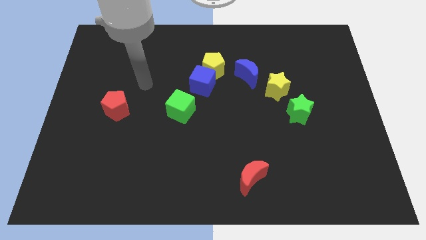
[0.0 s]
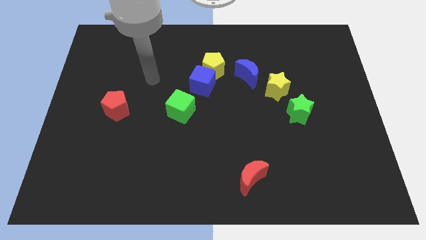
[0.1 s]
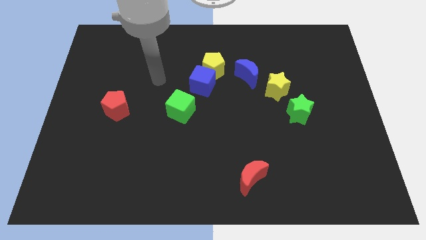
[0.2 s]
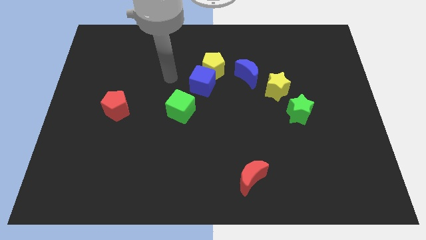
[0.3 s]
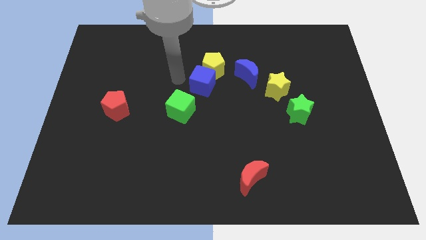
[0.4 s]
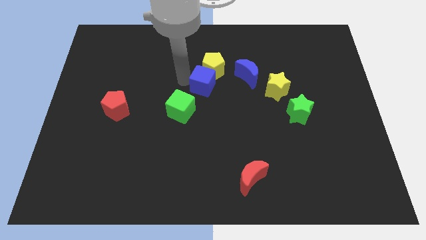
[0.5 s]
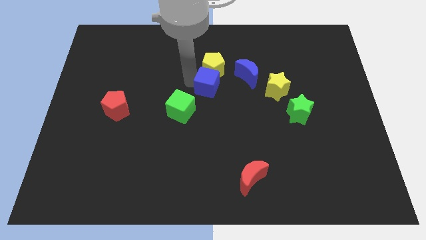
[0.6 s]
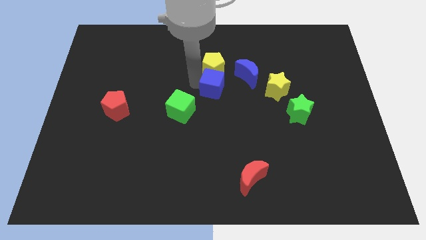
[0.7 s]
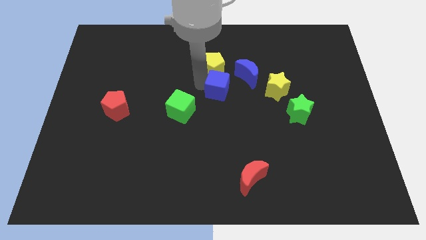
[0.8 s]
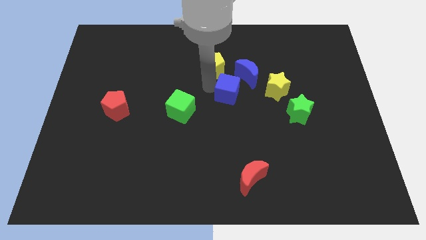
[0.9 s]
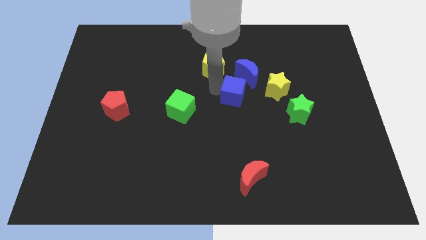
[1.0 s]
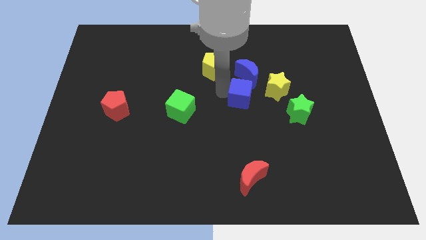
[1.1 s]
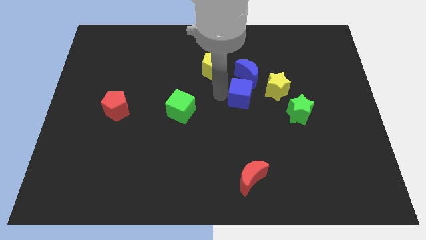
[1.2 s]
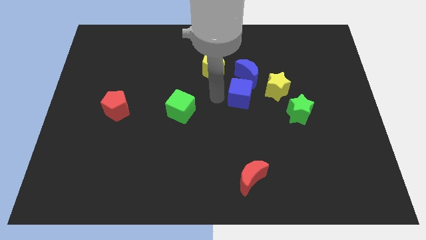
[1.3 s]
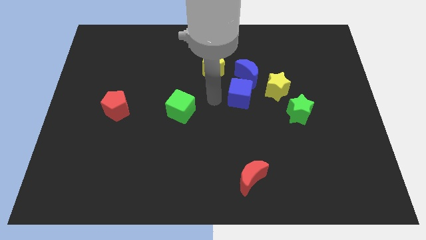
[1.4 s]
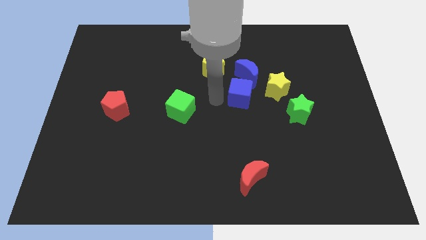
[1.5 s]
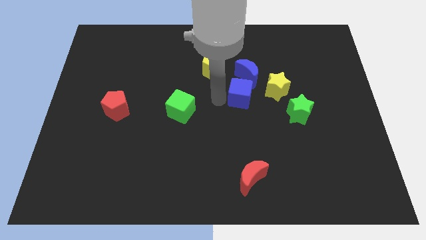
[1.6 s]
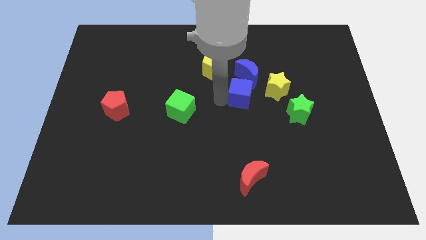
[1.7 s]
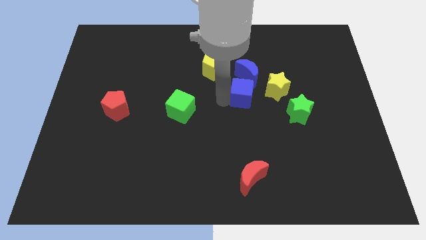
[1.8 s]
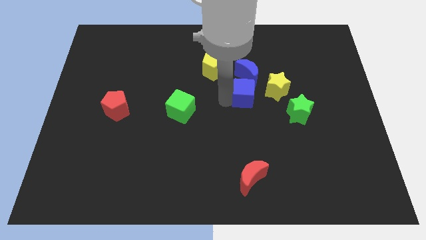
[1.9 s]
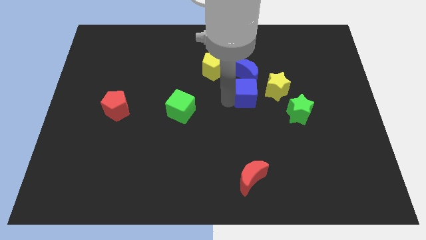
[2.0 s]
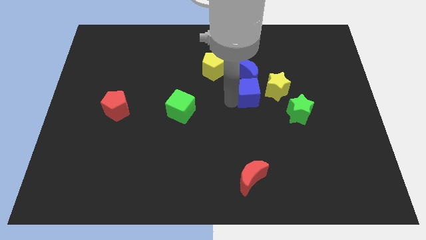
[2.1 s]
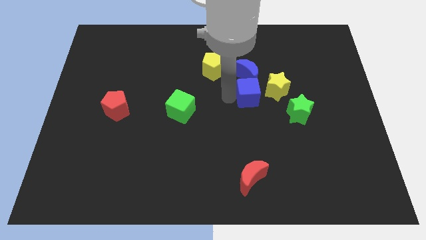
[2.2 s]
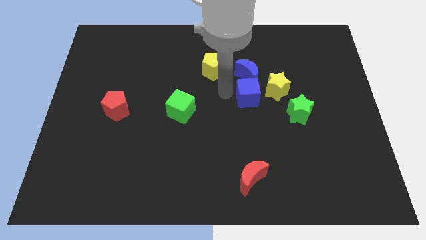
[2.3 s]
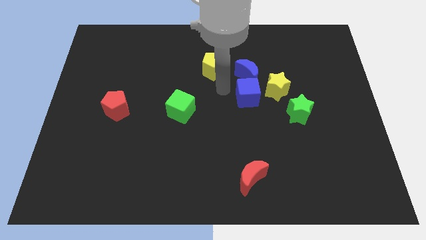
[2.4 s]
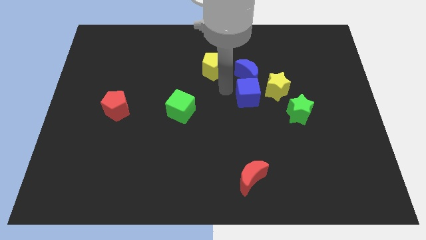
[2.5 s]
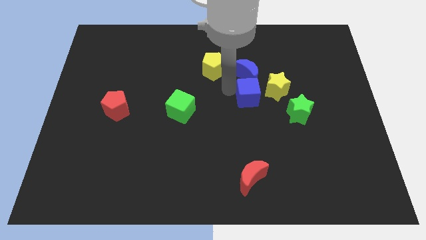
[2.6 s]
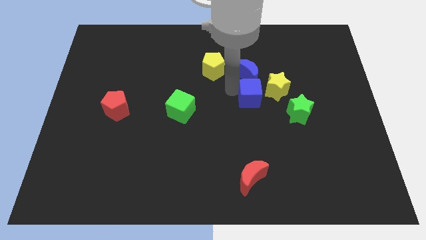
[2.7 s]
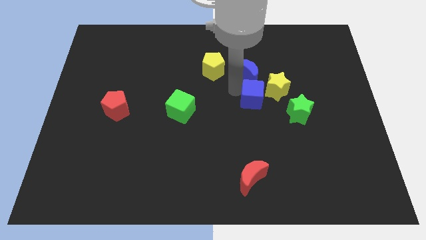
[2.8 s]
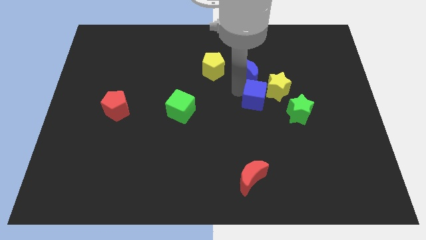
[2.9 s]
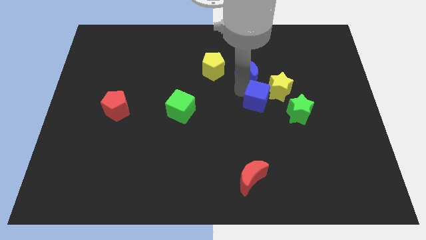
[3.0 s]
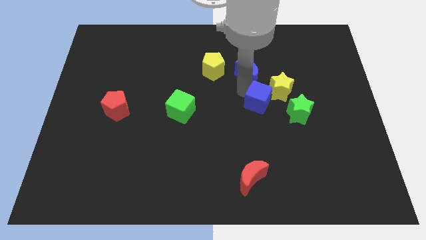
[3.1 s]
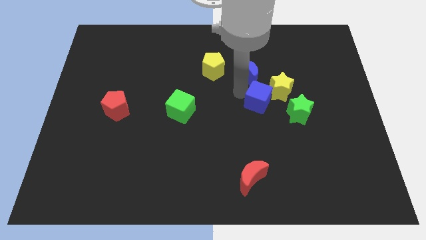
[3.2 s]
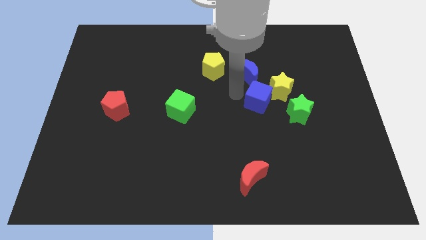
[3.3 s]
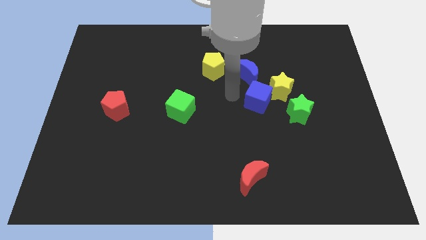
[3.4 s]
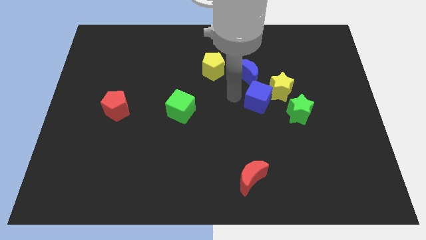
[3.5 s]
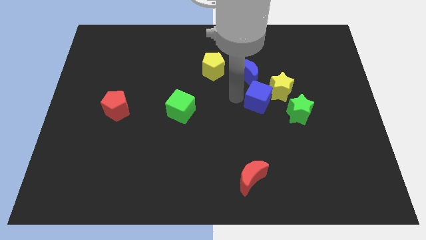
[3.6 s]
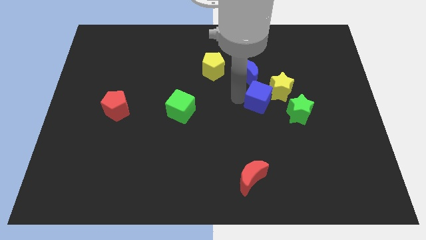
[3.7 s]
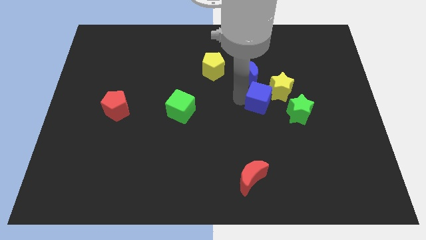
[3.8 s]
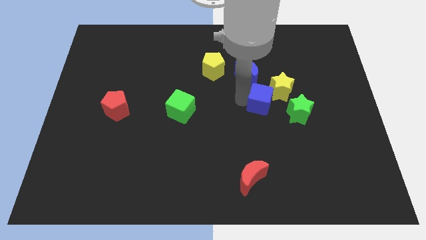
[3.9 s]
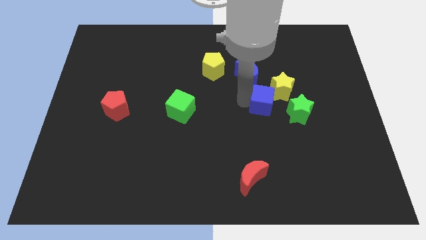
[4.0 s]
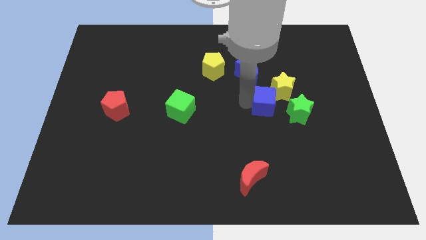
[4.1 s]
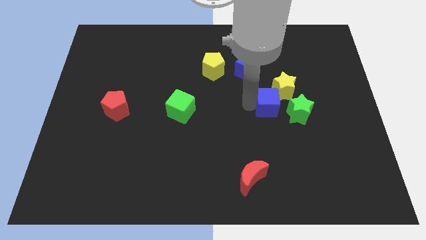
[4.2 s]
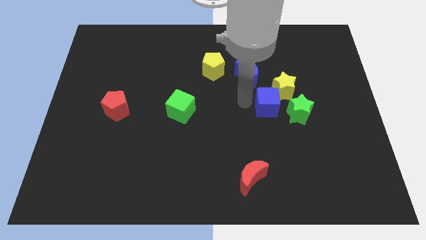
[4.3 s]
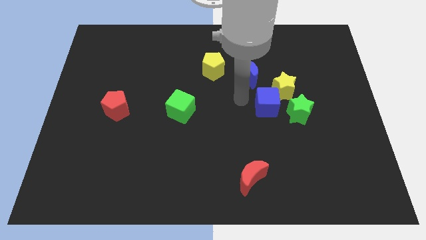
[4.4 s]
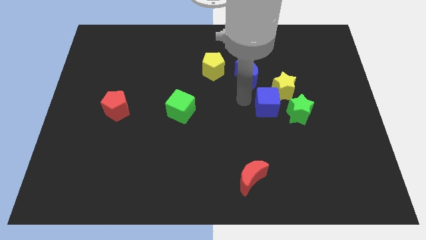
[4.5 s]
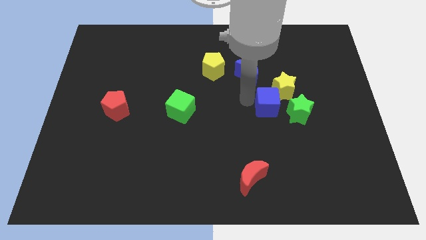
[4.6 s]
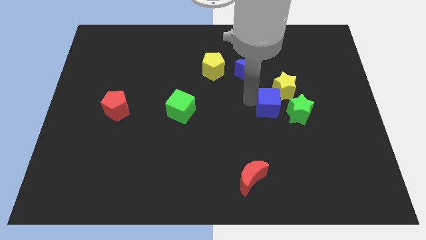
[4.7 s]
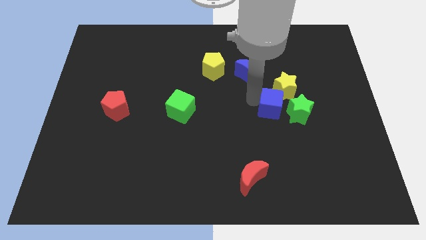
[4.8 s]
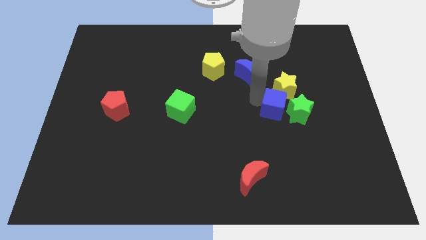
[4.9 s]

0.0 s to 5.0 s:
push the blue cube next to the green star

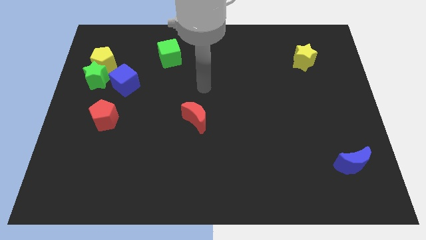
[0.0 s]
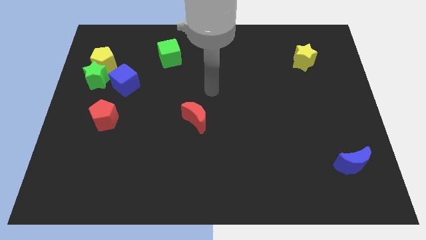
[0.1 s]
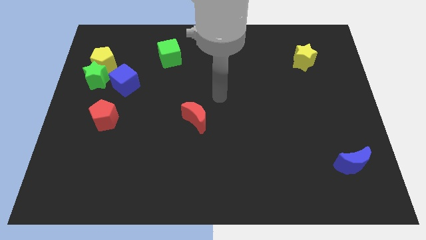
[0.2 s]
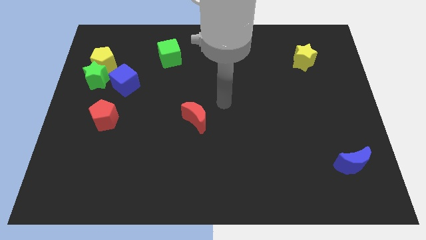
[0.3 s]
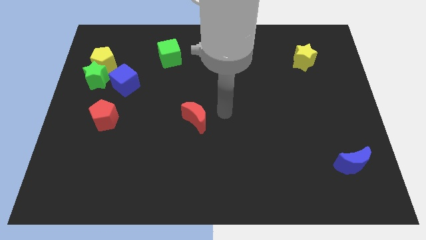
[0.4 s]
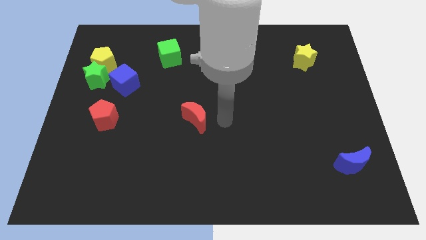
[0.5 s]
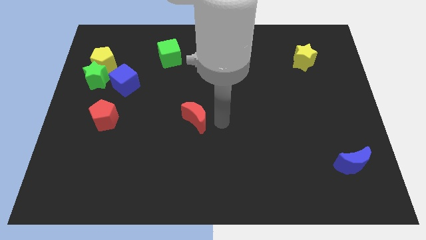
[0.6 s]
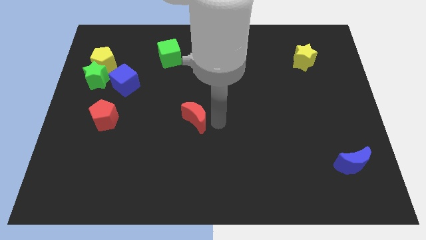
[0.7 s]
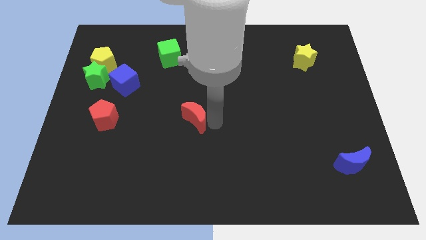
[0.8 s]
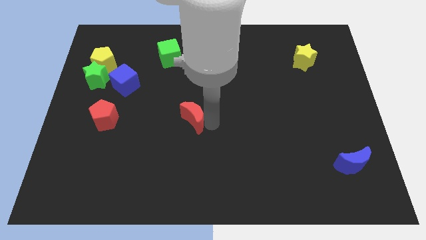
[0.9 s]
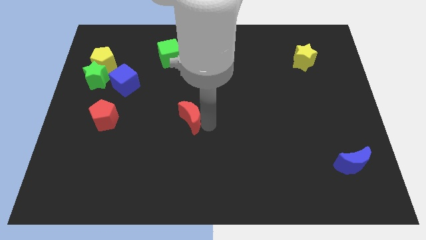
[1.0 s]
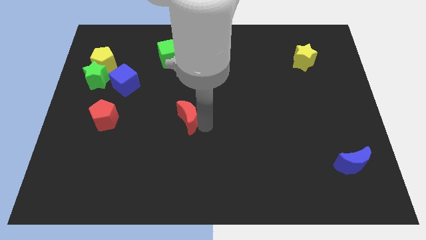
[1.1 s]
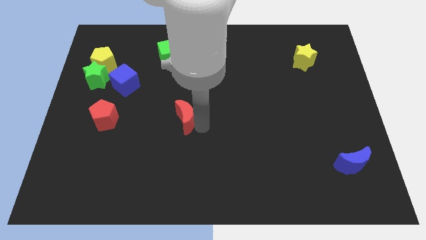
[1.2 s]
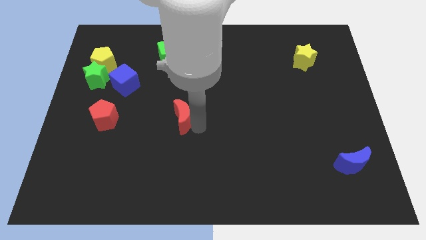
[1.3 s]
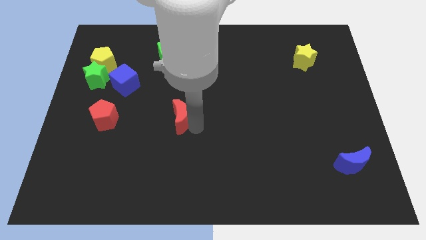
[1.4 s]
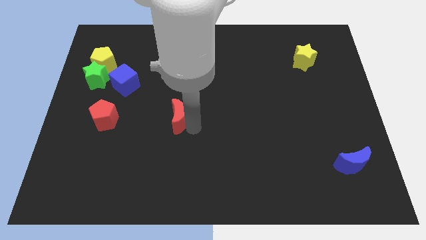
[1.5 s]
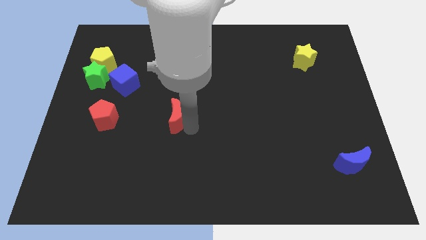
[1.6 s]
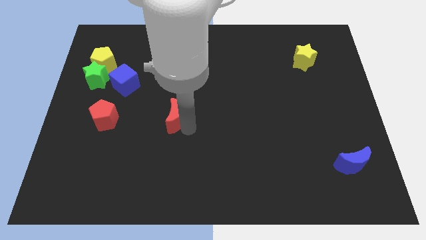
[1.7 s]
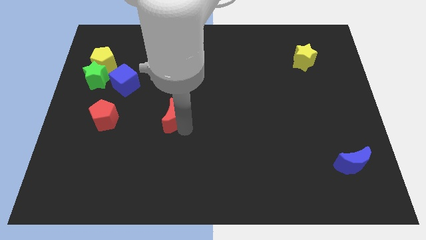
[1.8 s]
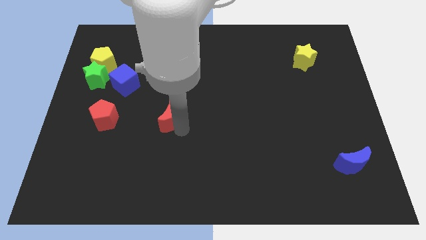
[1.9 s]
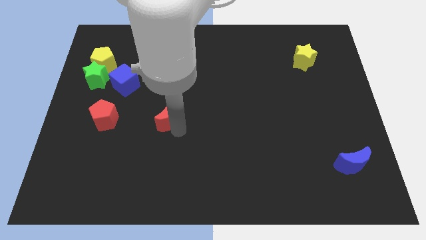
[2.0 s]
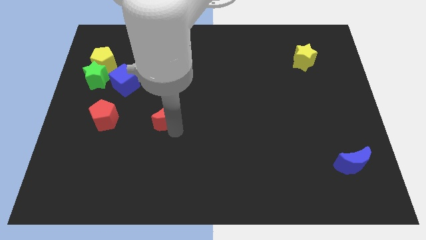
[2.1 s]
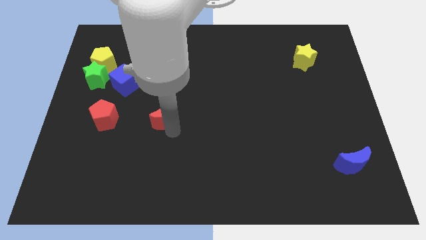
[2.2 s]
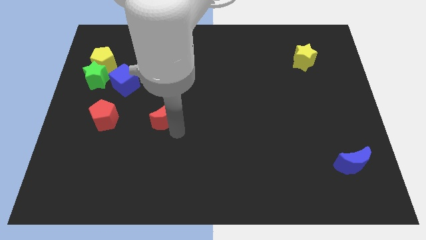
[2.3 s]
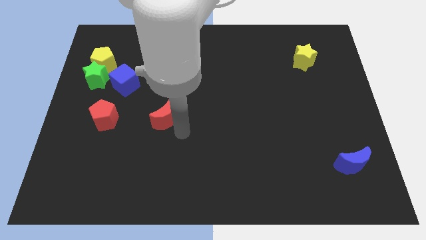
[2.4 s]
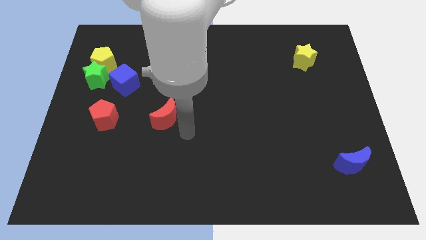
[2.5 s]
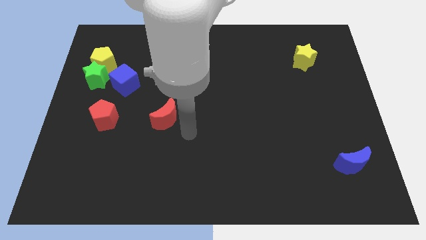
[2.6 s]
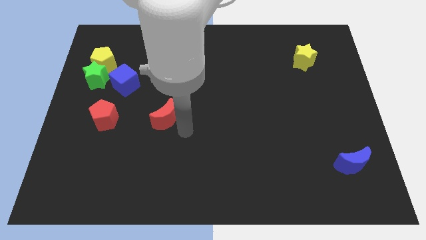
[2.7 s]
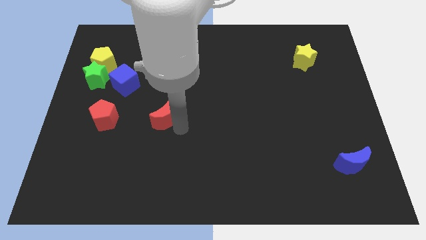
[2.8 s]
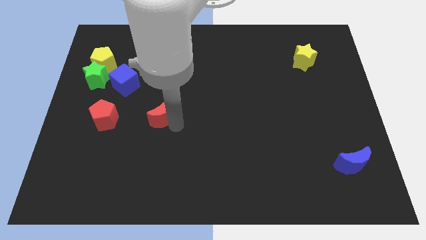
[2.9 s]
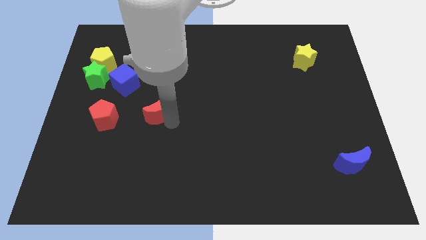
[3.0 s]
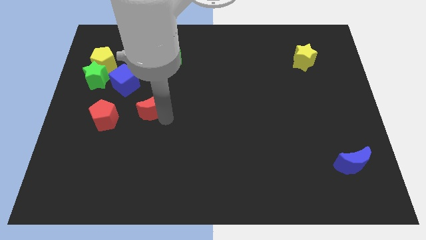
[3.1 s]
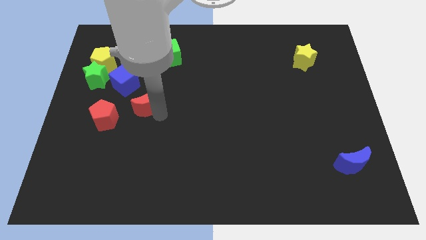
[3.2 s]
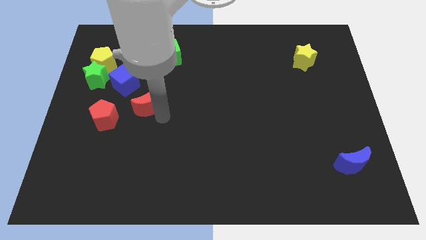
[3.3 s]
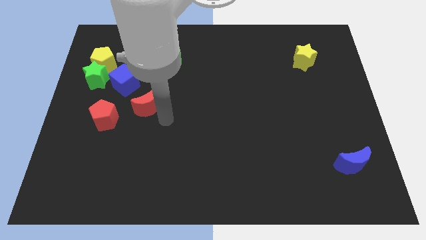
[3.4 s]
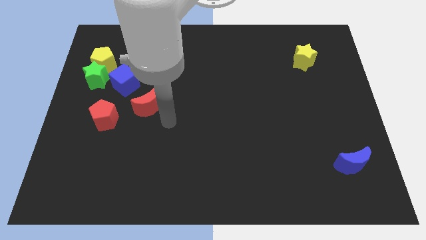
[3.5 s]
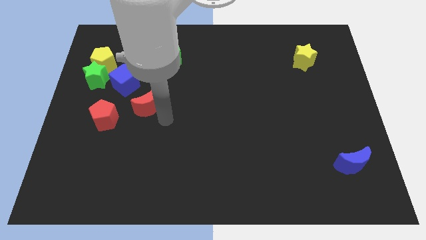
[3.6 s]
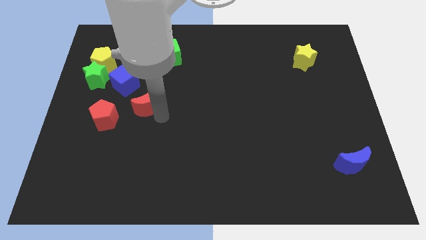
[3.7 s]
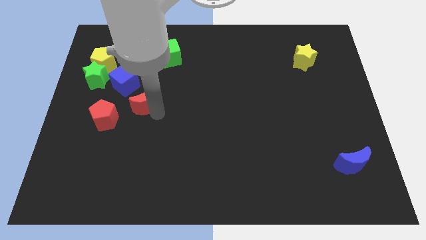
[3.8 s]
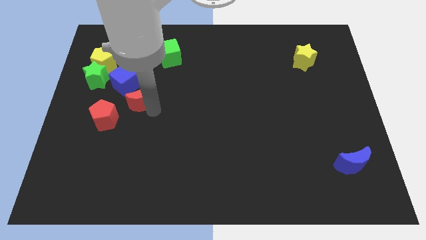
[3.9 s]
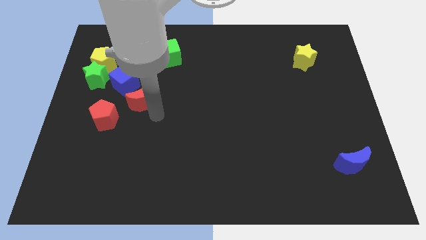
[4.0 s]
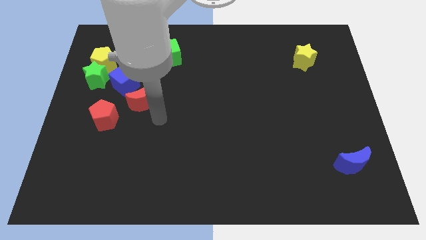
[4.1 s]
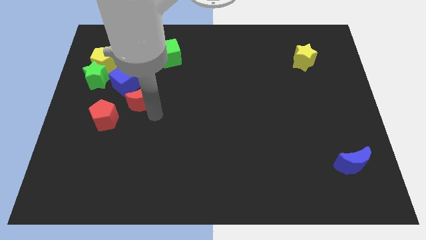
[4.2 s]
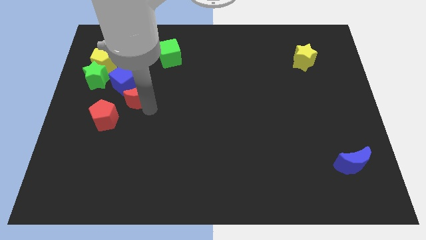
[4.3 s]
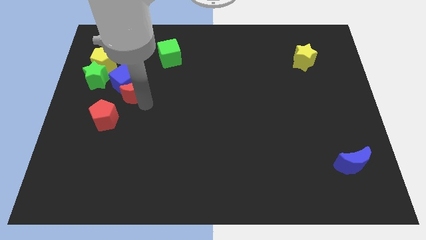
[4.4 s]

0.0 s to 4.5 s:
push the red moon next to the blue cube
